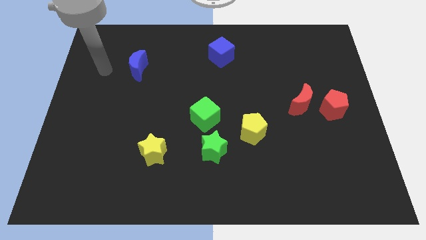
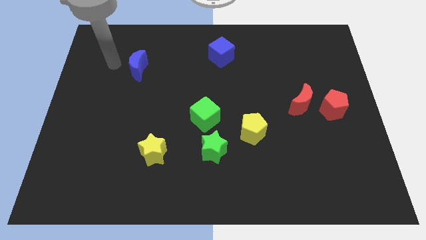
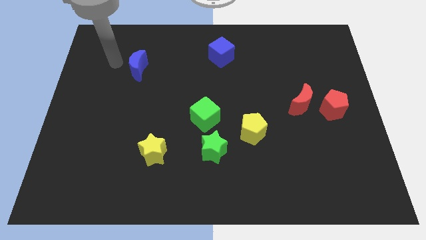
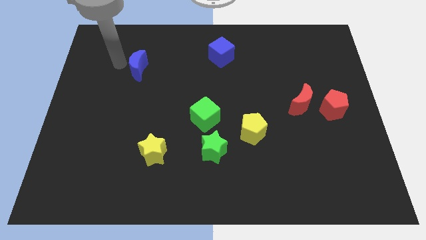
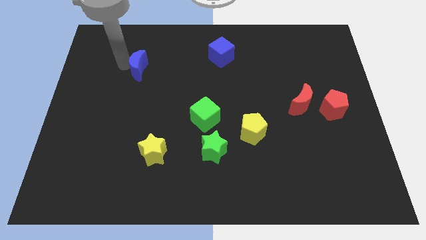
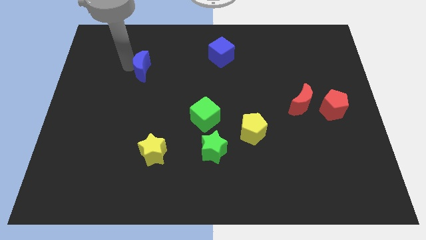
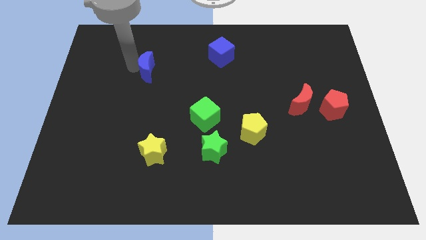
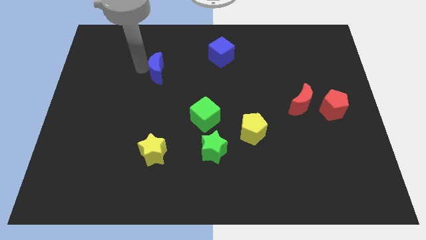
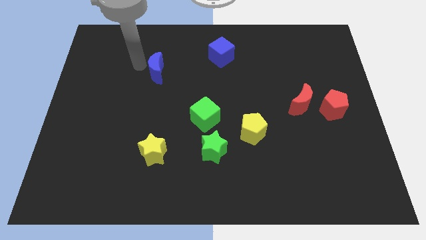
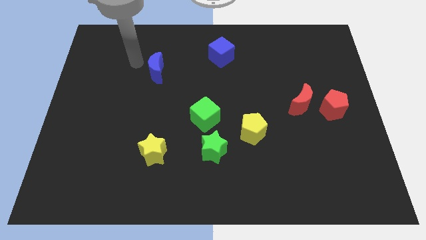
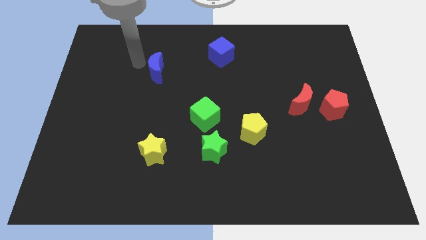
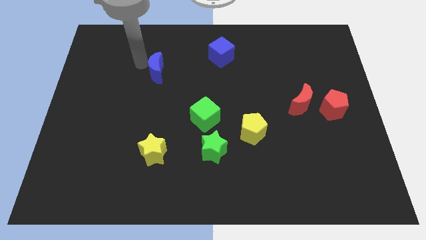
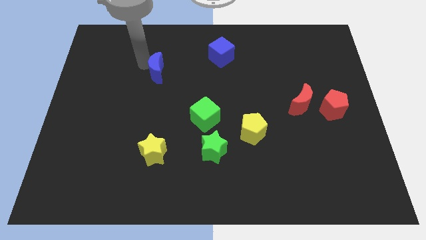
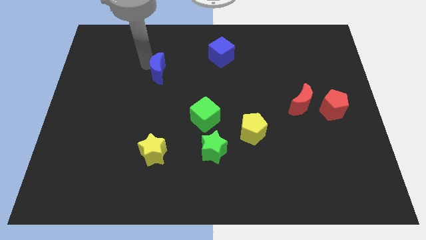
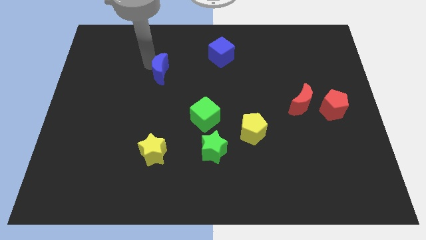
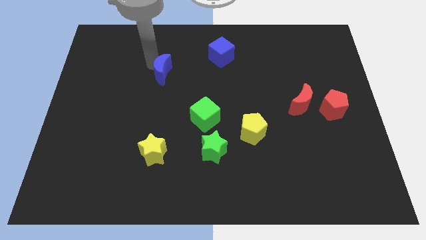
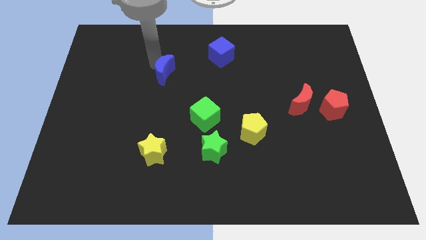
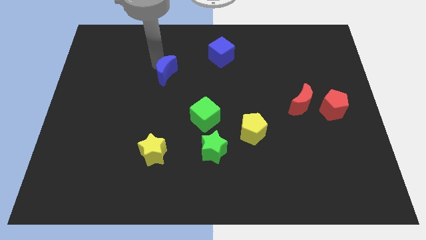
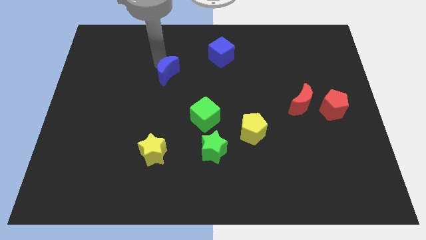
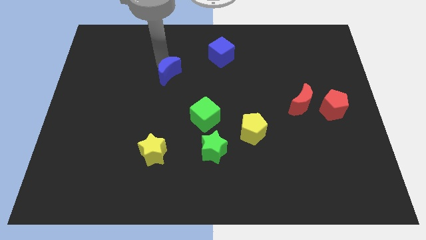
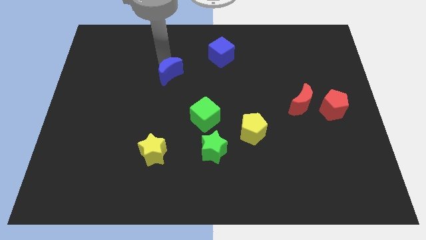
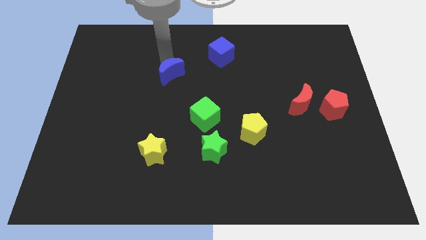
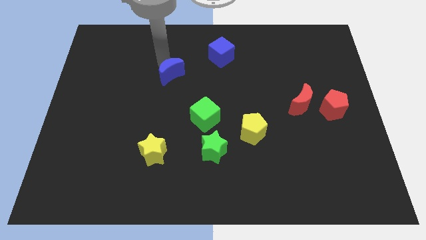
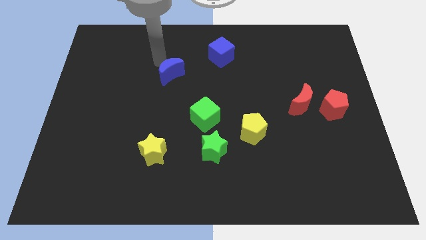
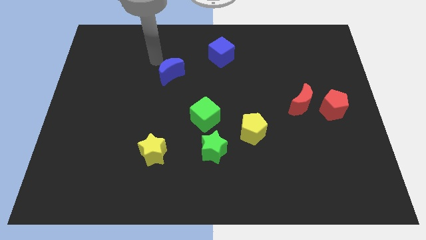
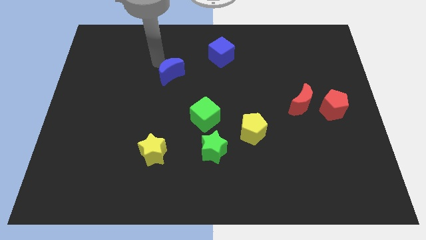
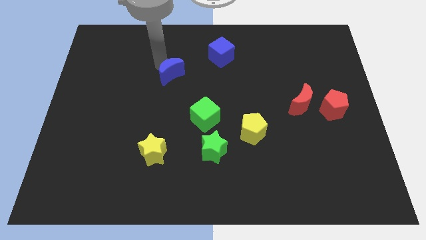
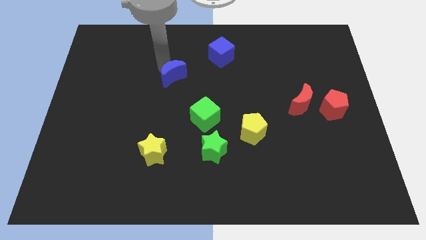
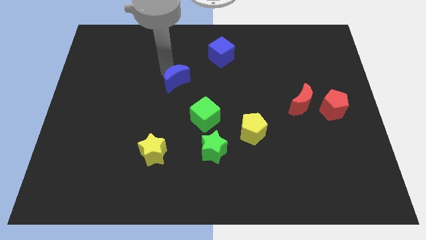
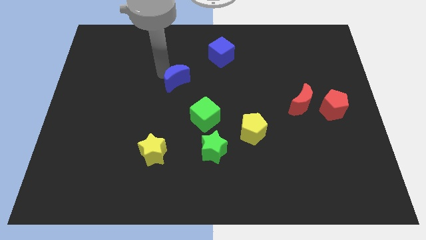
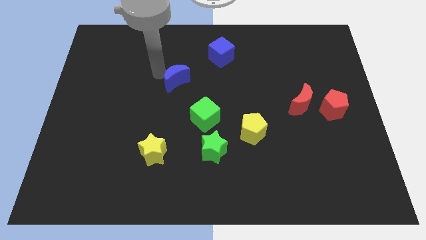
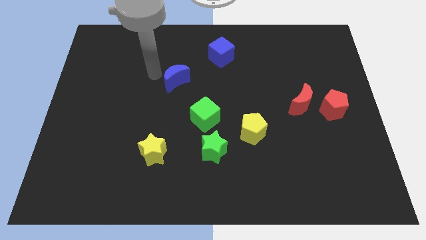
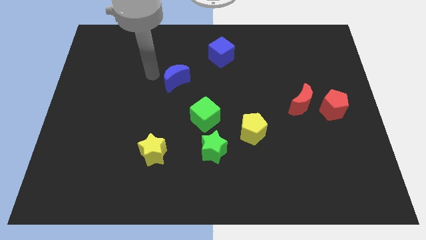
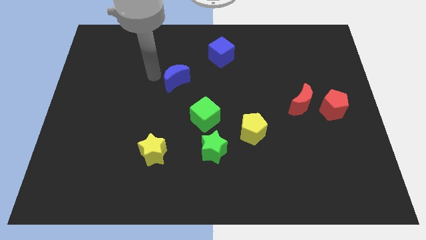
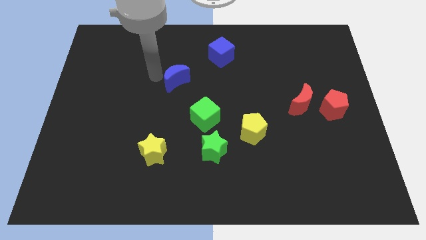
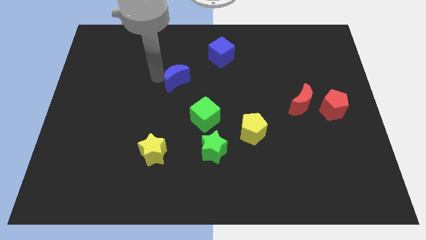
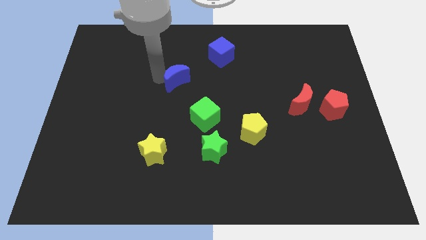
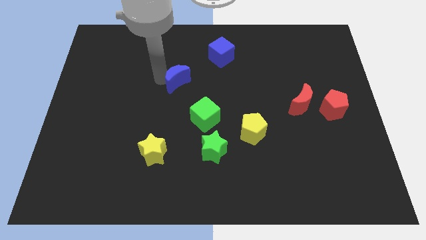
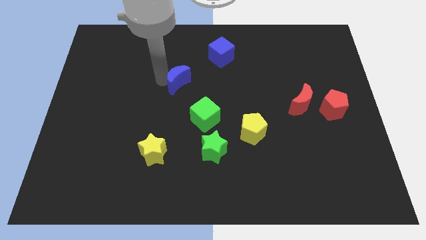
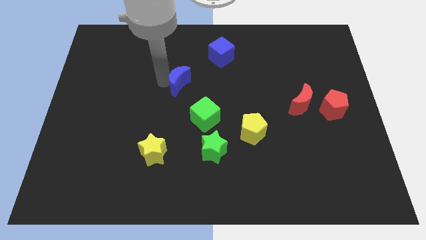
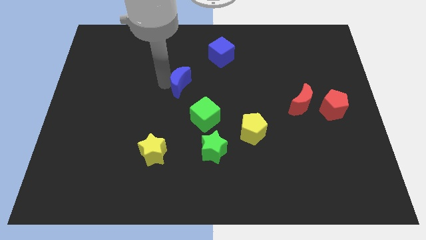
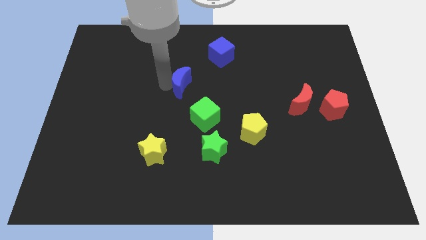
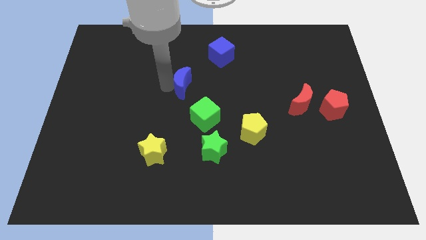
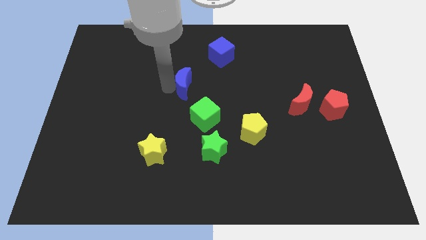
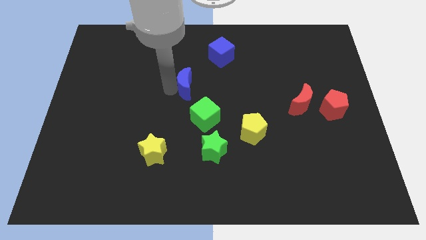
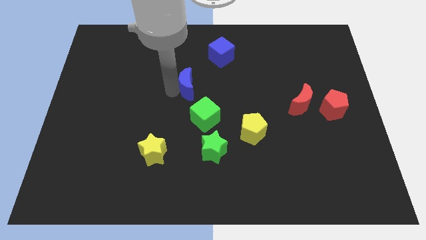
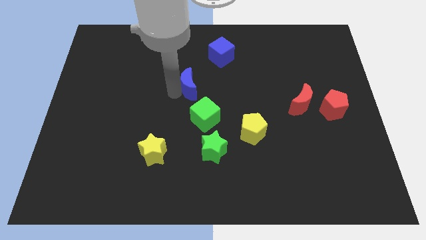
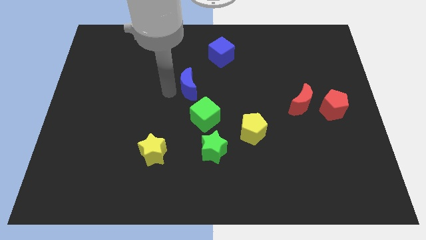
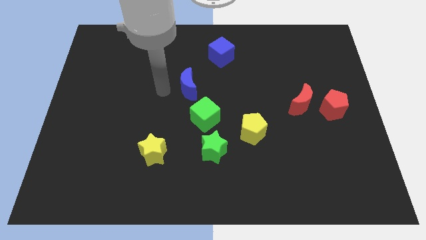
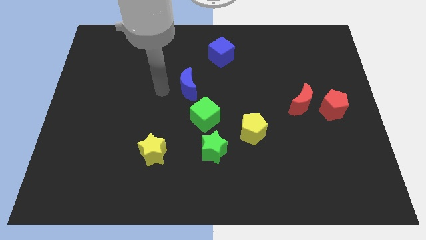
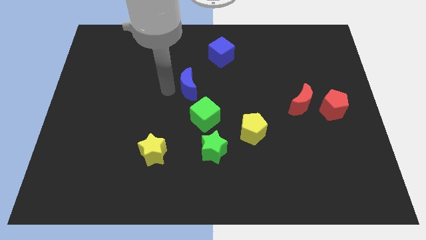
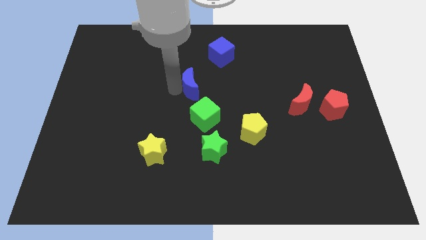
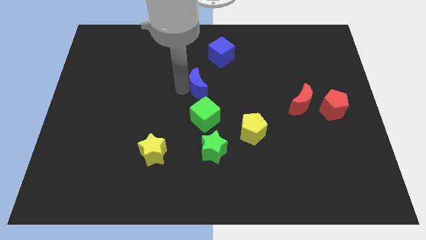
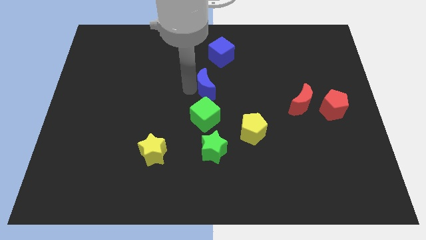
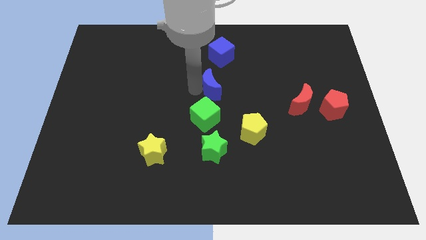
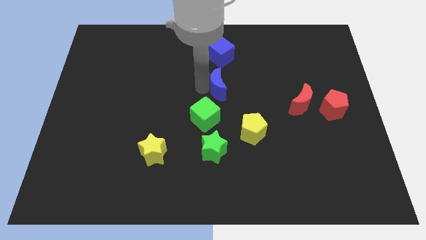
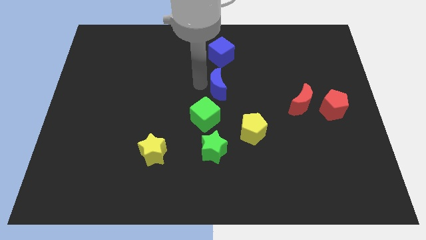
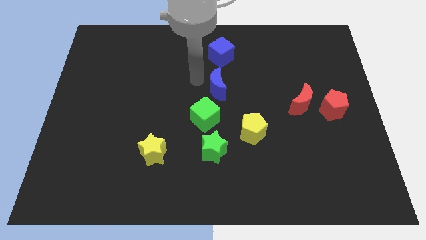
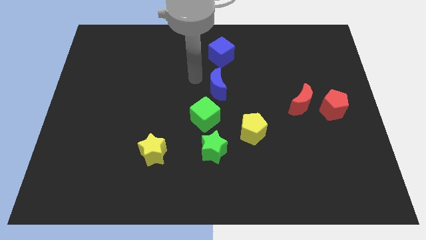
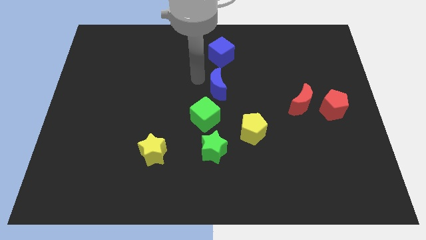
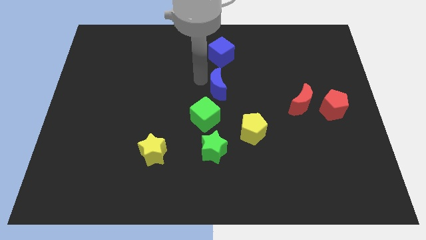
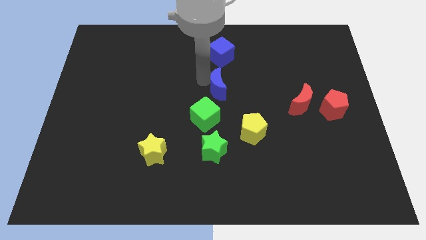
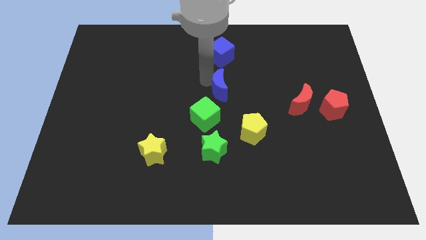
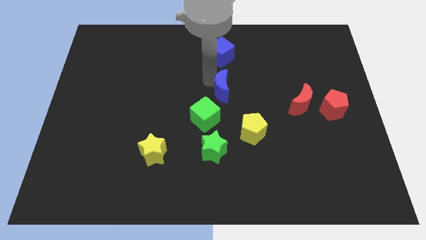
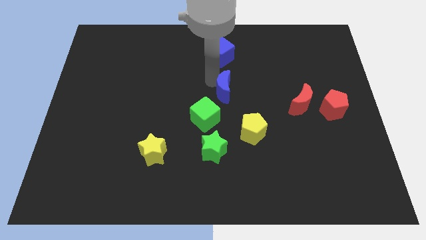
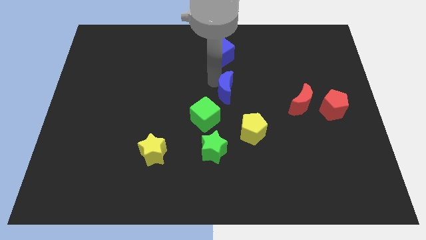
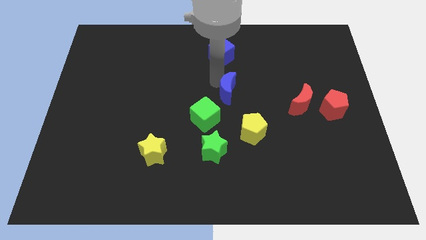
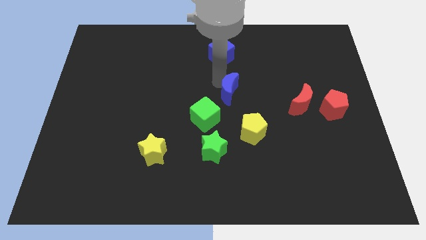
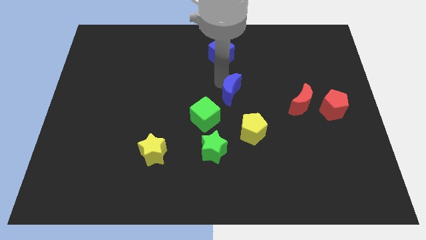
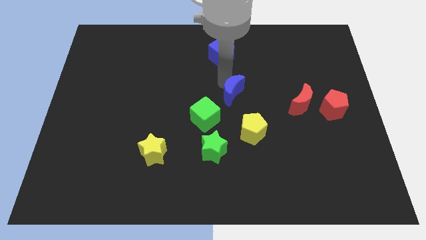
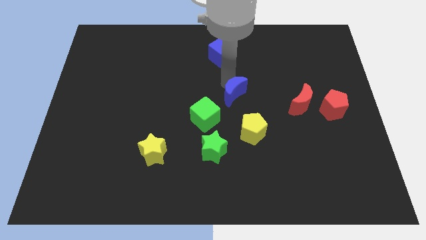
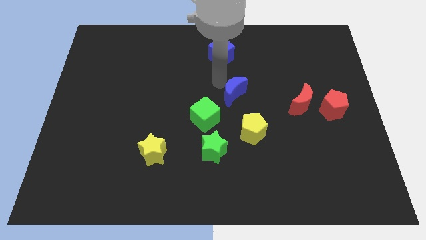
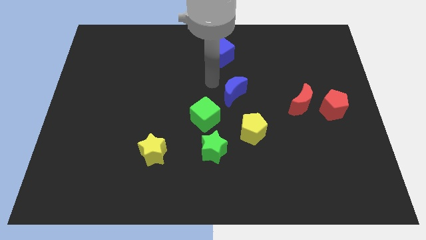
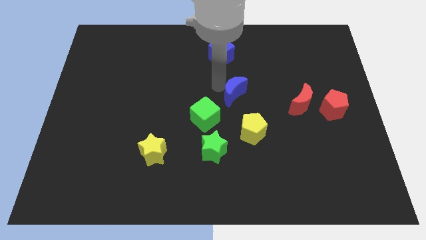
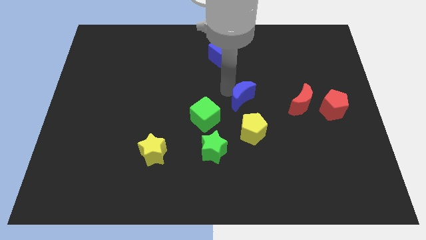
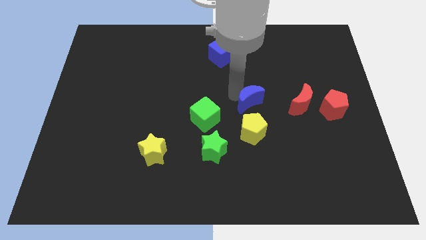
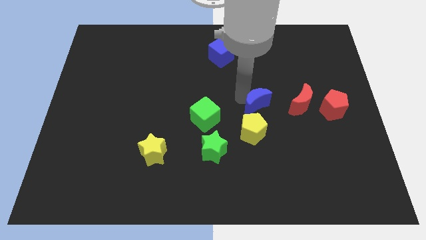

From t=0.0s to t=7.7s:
move the blue moon to the top right side of the yellow pentagon
